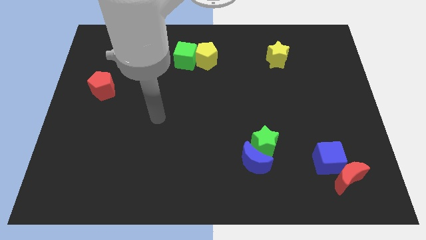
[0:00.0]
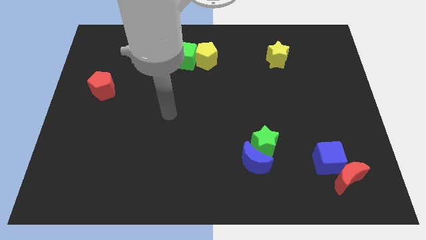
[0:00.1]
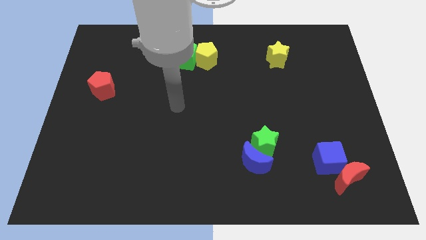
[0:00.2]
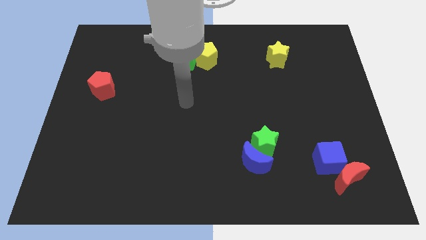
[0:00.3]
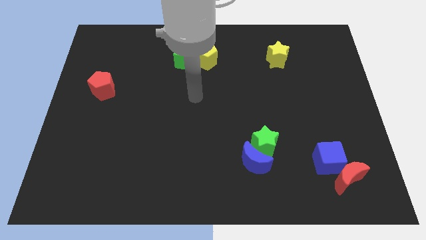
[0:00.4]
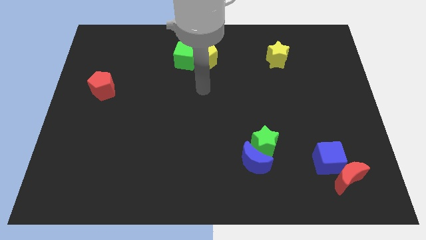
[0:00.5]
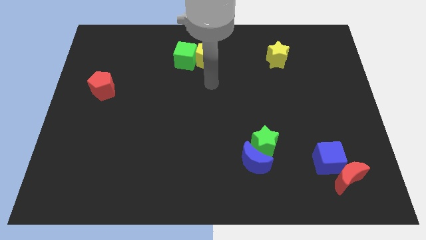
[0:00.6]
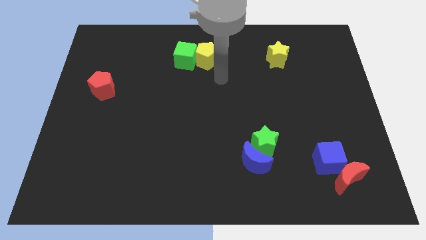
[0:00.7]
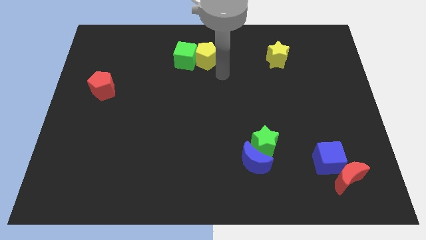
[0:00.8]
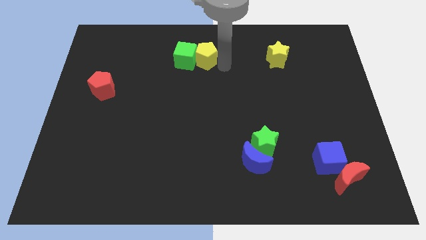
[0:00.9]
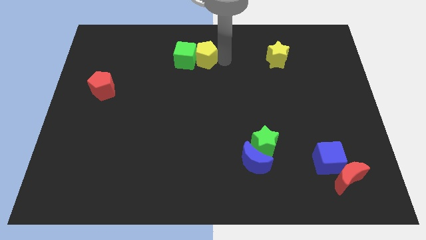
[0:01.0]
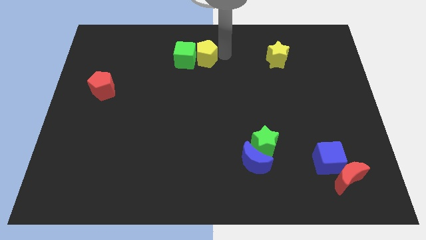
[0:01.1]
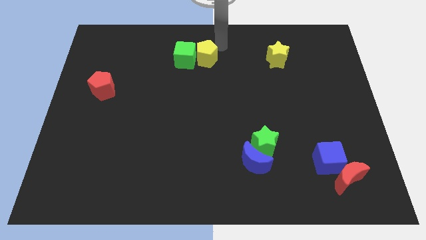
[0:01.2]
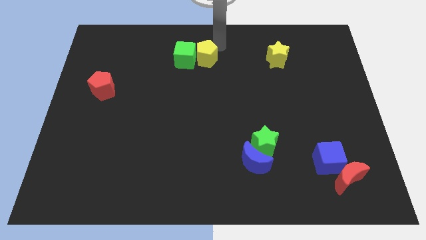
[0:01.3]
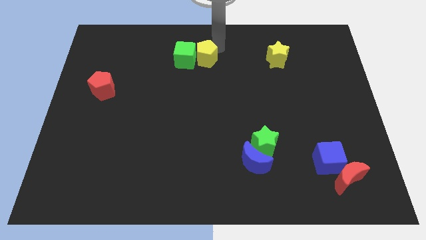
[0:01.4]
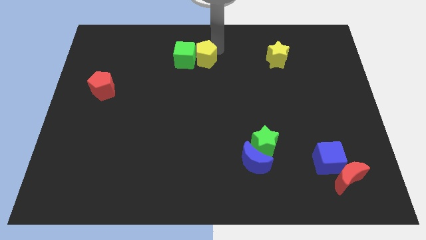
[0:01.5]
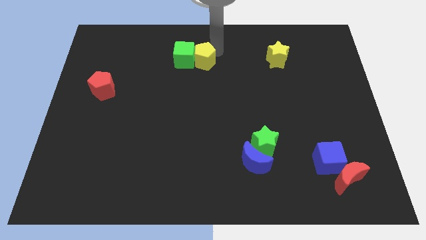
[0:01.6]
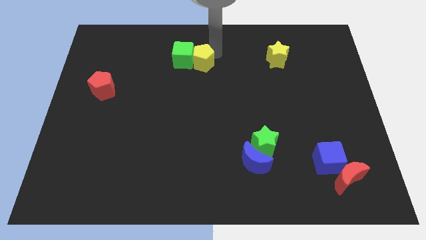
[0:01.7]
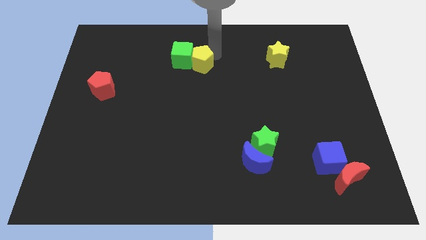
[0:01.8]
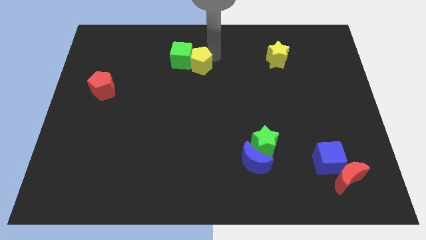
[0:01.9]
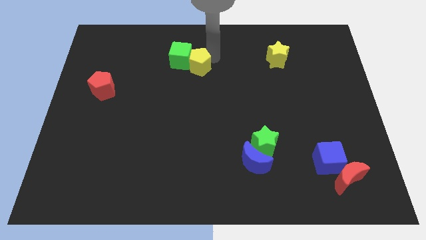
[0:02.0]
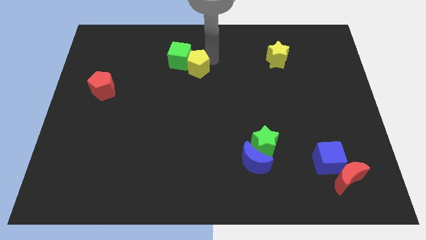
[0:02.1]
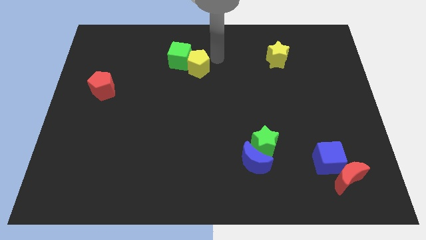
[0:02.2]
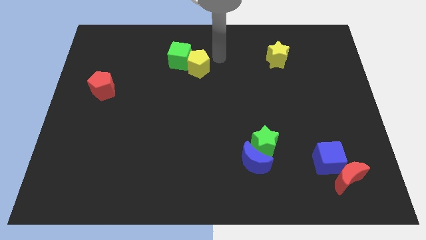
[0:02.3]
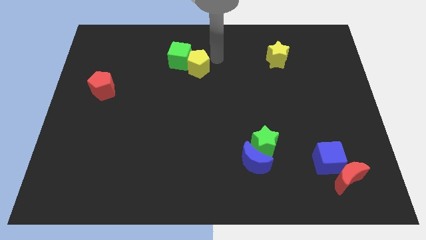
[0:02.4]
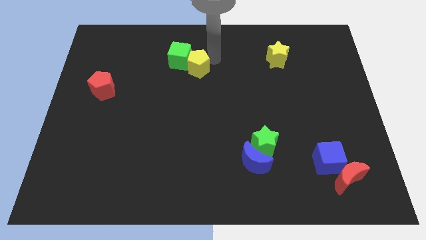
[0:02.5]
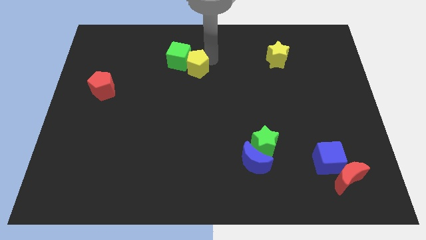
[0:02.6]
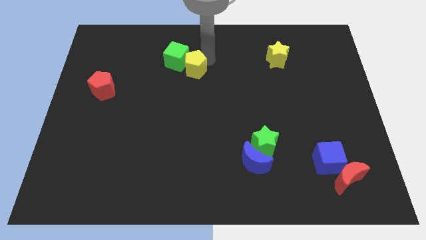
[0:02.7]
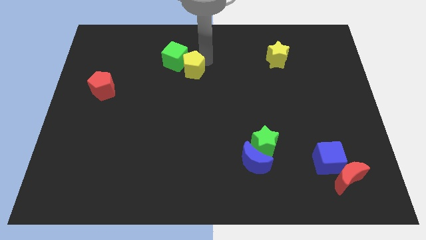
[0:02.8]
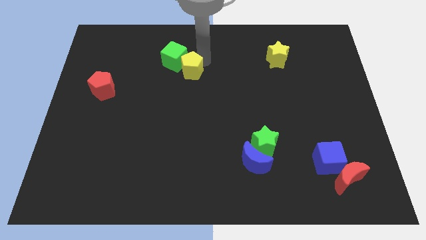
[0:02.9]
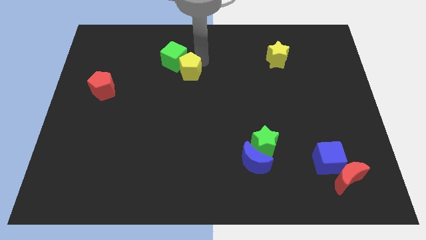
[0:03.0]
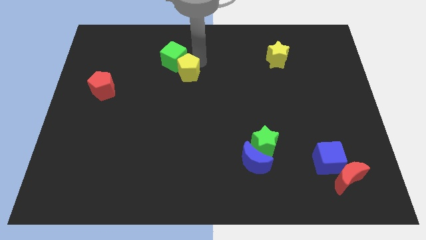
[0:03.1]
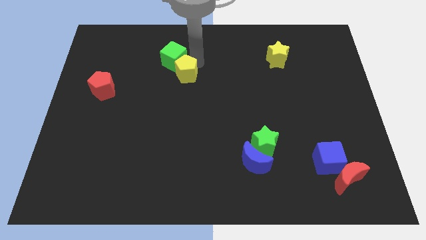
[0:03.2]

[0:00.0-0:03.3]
push the yellow pentagon down and then to the left a little

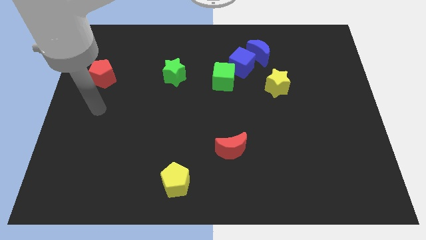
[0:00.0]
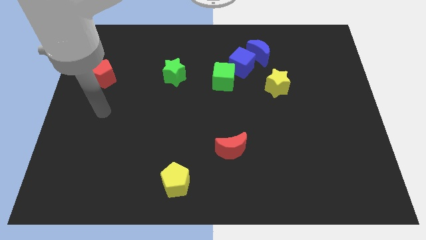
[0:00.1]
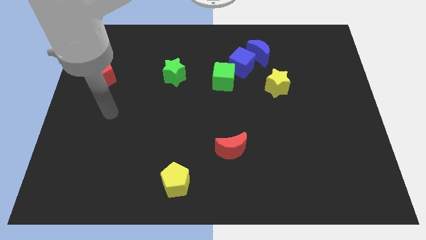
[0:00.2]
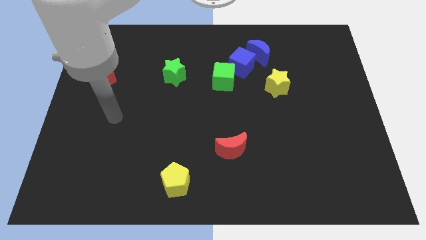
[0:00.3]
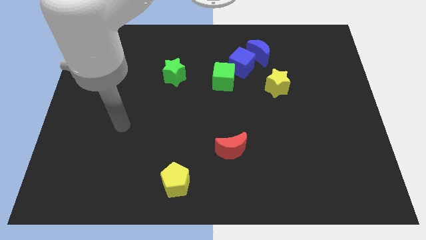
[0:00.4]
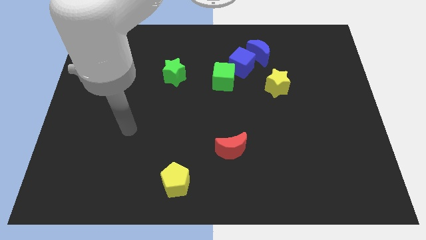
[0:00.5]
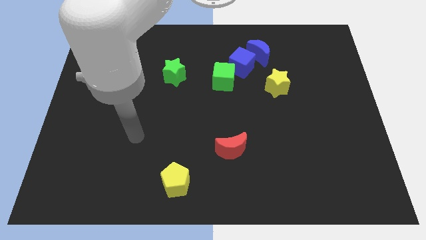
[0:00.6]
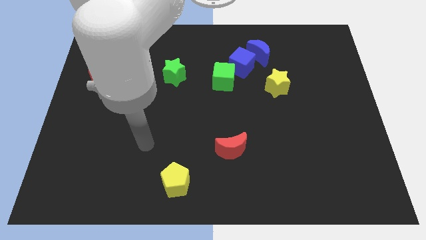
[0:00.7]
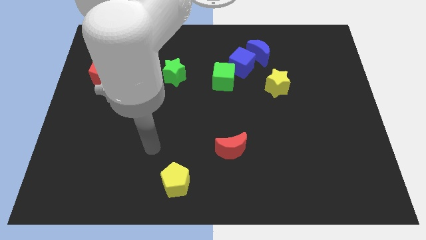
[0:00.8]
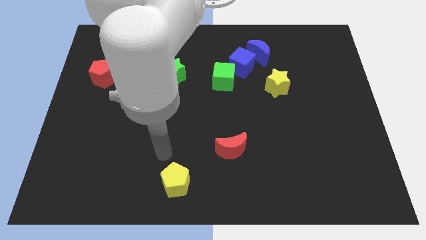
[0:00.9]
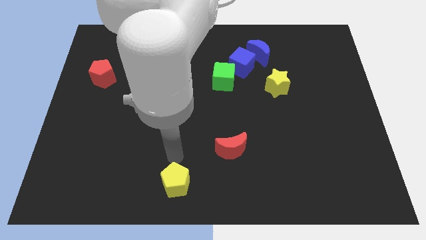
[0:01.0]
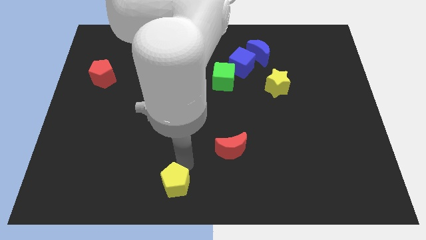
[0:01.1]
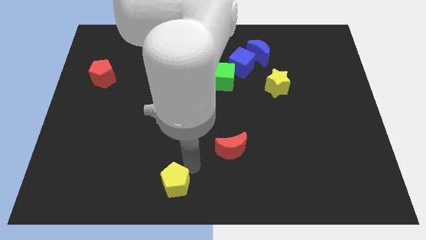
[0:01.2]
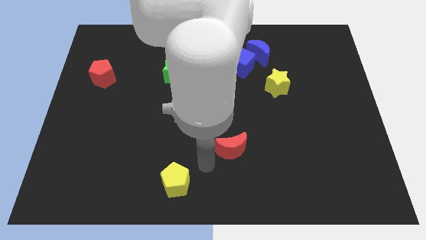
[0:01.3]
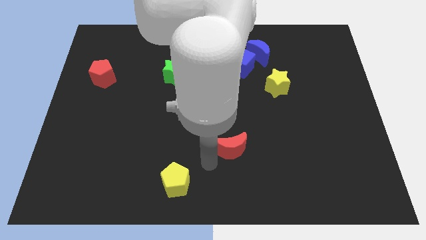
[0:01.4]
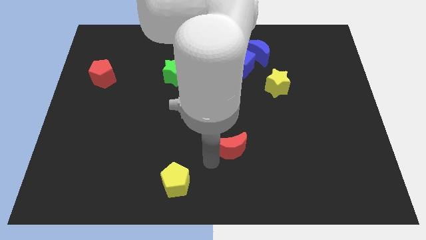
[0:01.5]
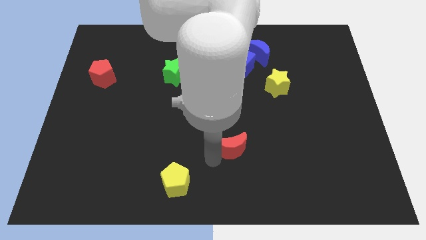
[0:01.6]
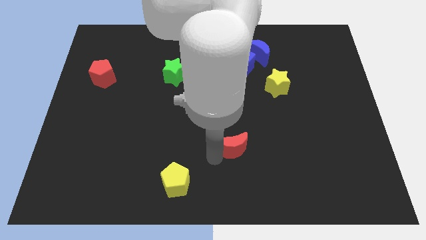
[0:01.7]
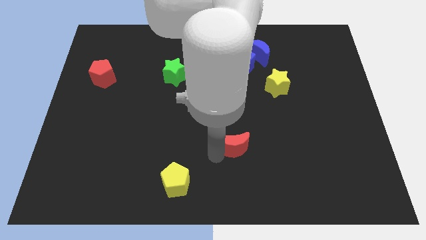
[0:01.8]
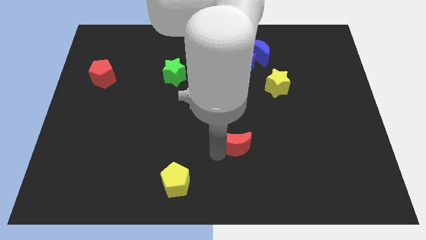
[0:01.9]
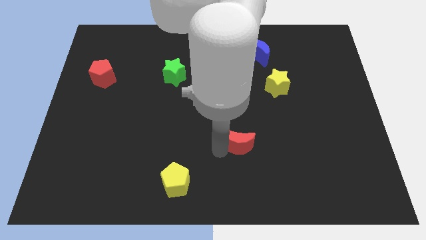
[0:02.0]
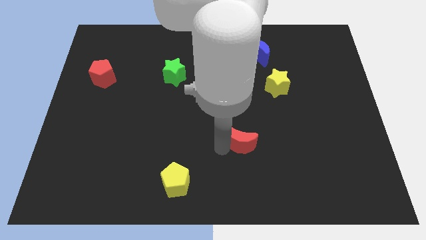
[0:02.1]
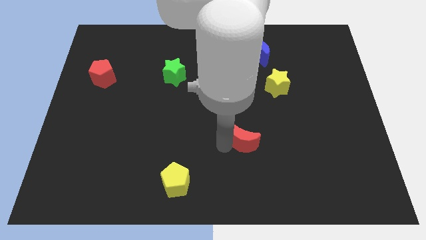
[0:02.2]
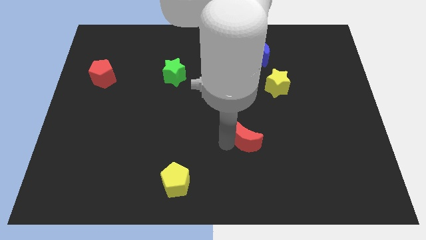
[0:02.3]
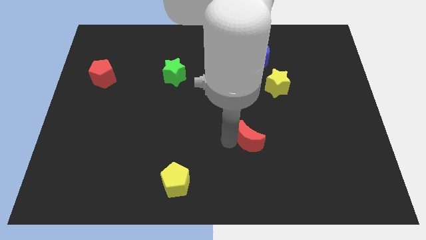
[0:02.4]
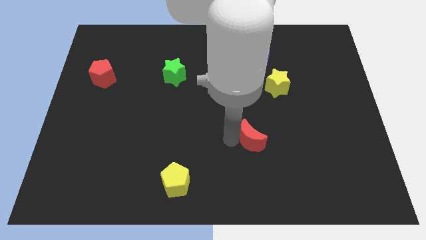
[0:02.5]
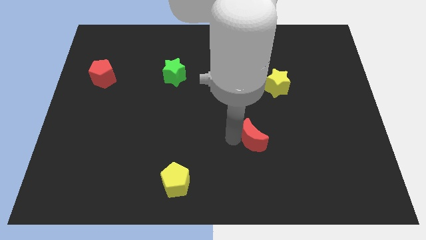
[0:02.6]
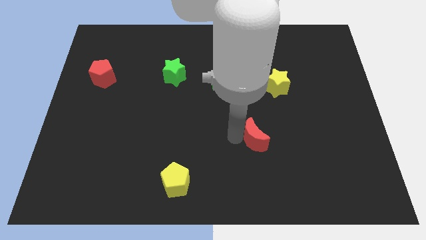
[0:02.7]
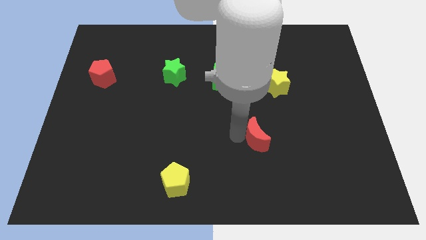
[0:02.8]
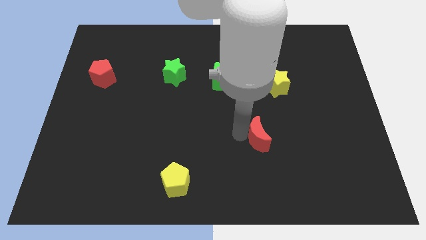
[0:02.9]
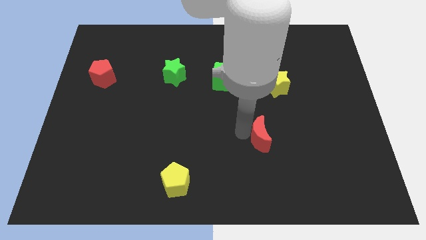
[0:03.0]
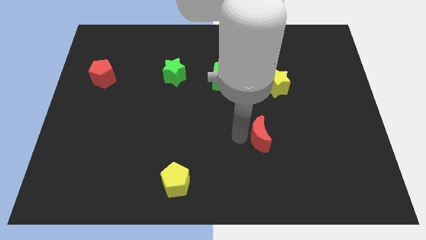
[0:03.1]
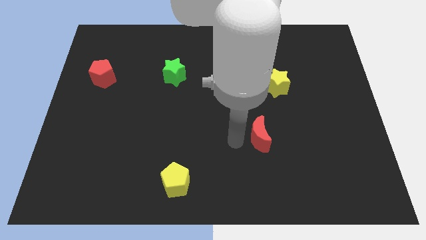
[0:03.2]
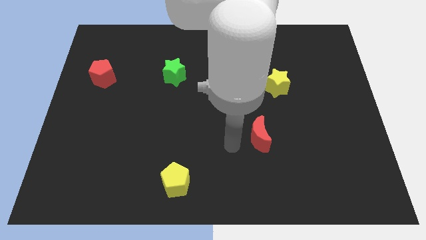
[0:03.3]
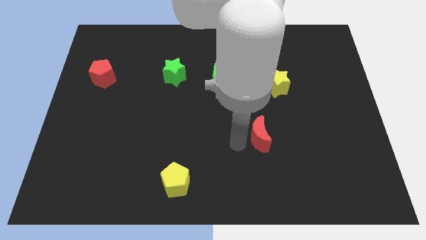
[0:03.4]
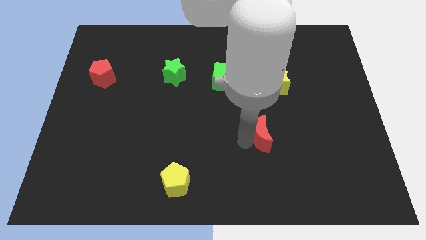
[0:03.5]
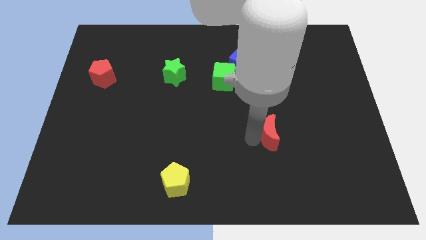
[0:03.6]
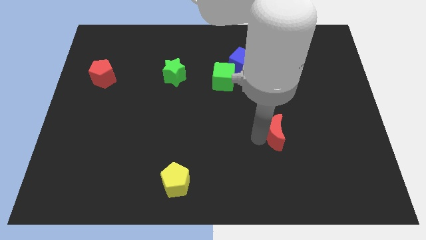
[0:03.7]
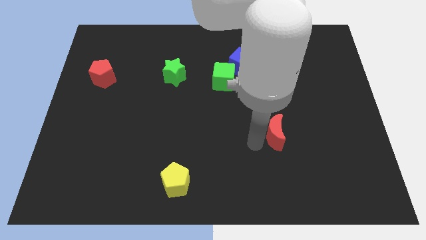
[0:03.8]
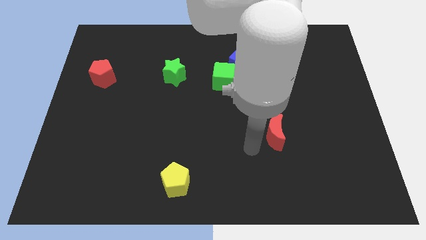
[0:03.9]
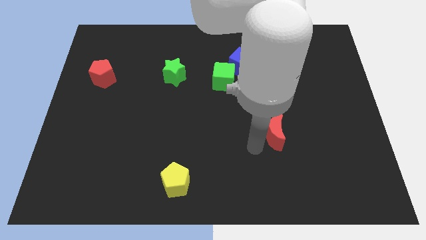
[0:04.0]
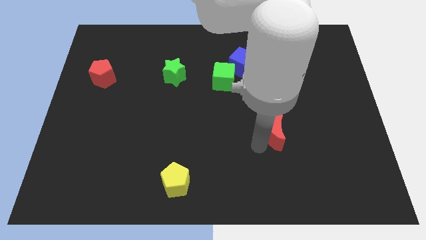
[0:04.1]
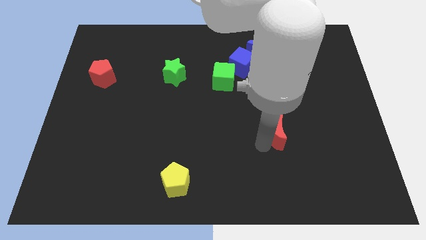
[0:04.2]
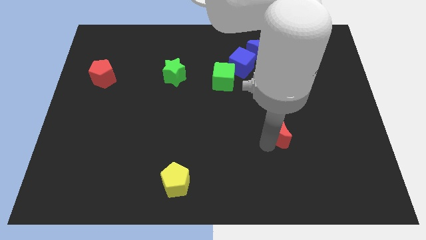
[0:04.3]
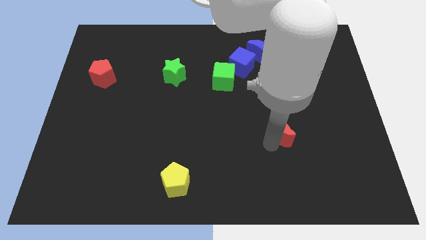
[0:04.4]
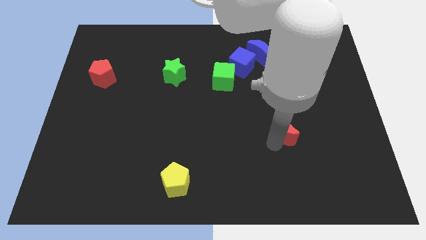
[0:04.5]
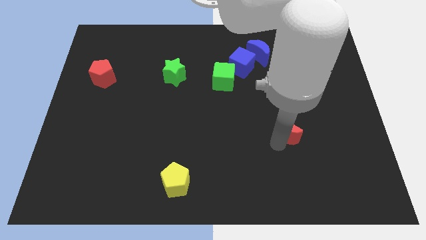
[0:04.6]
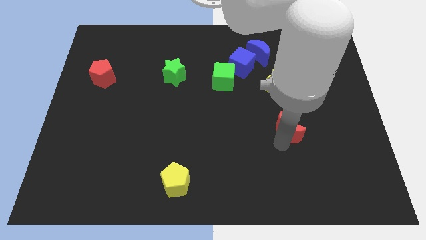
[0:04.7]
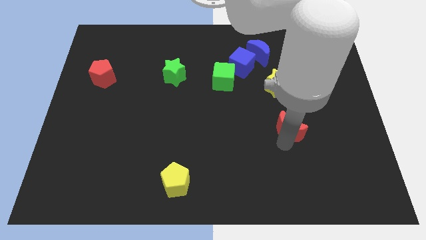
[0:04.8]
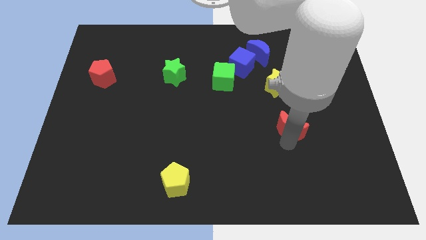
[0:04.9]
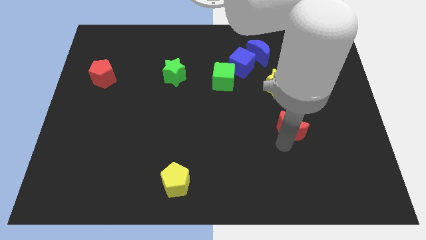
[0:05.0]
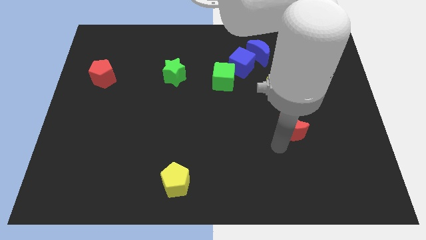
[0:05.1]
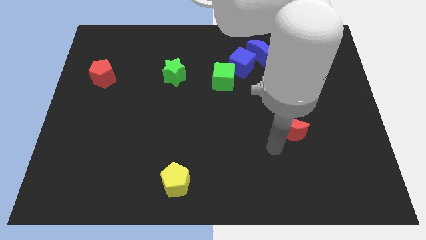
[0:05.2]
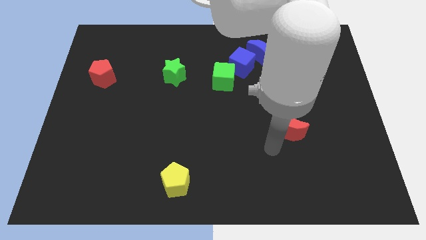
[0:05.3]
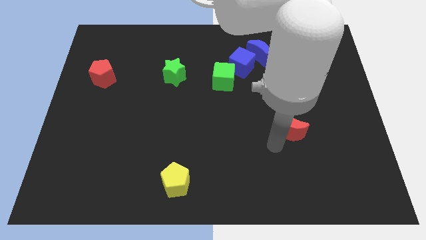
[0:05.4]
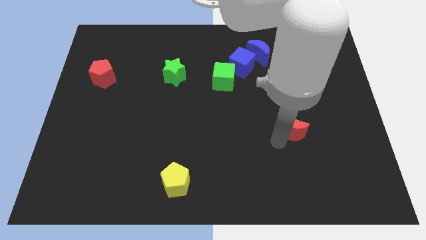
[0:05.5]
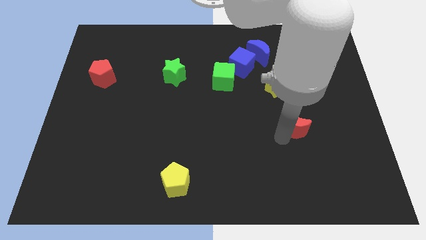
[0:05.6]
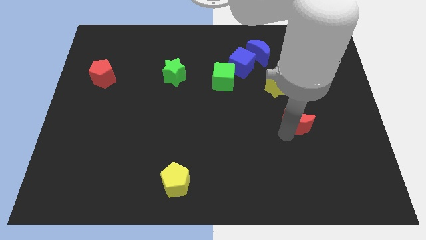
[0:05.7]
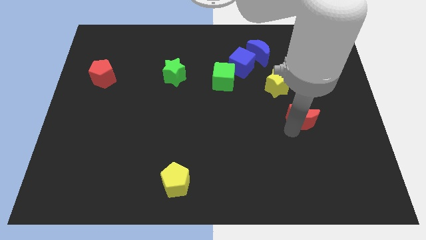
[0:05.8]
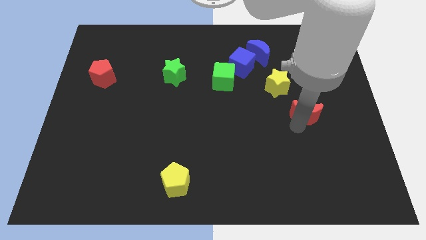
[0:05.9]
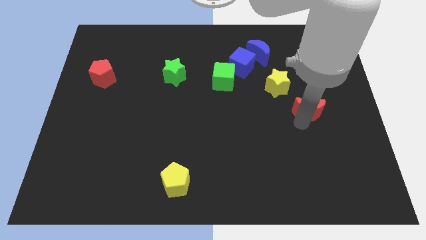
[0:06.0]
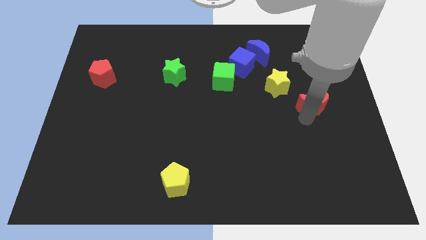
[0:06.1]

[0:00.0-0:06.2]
slide the red moon upwards and to the right
